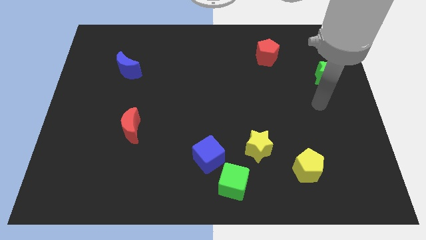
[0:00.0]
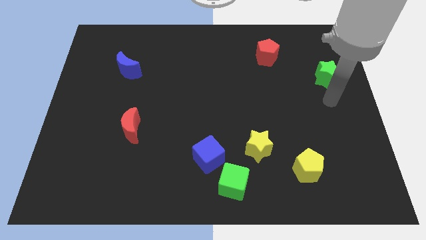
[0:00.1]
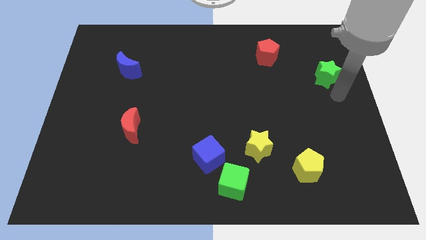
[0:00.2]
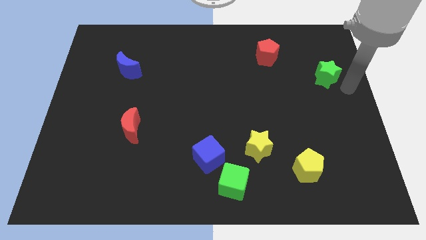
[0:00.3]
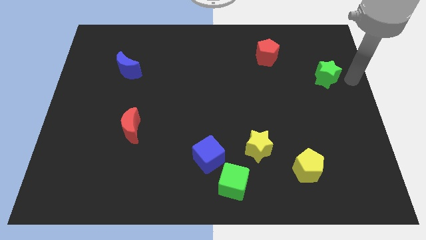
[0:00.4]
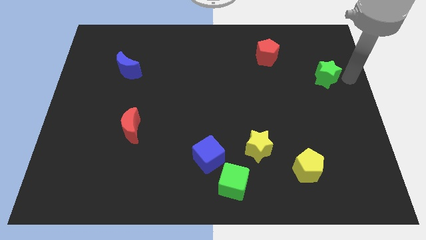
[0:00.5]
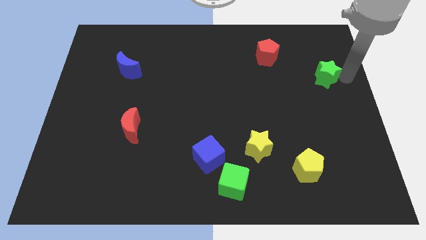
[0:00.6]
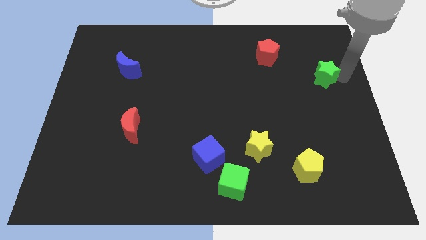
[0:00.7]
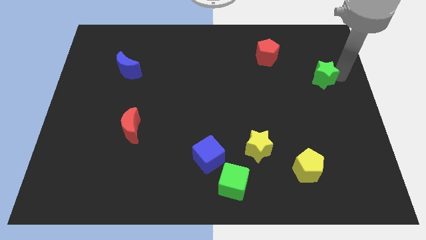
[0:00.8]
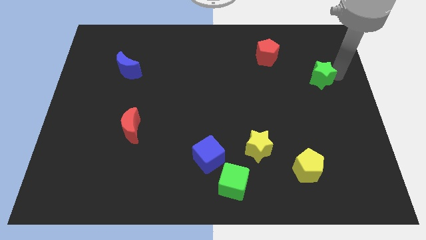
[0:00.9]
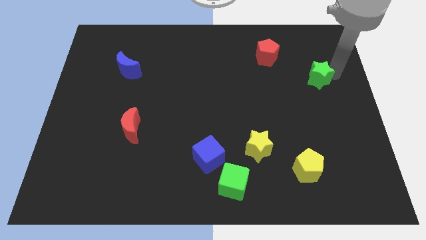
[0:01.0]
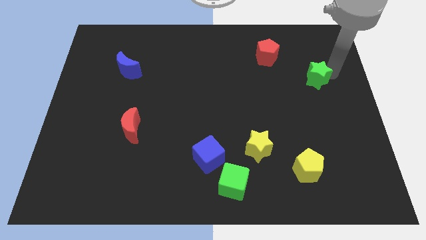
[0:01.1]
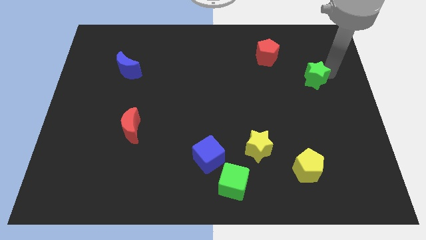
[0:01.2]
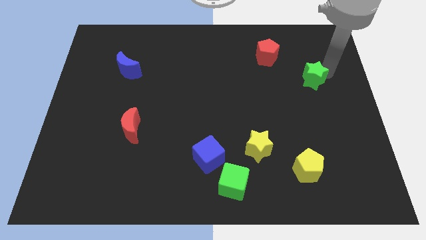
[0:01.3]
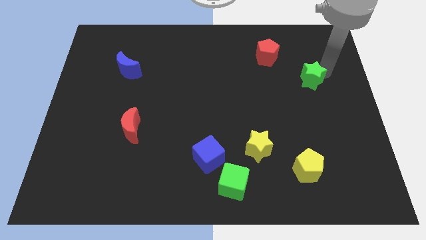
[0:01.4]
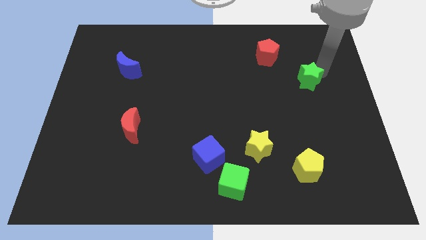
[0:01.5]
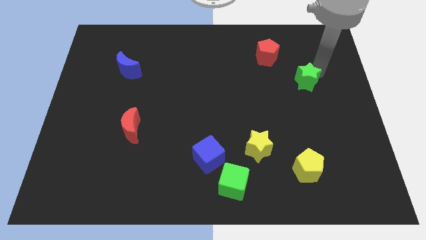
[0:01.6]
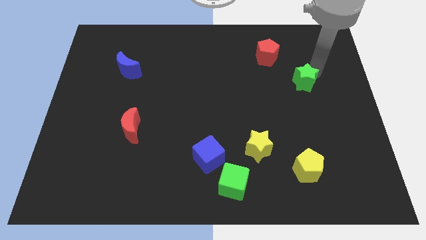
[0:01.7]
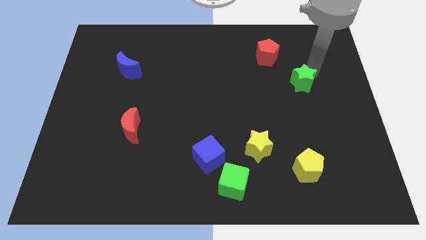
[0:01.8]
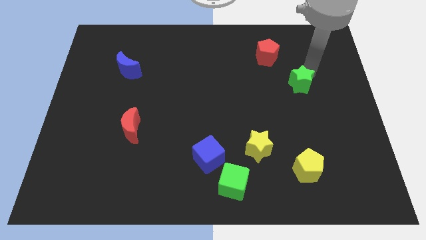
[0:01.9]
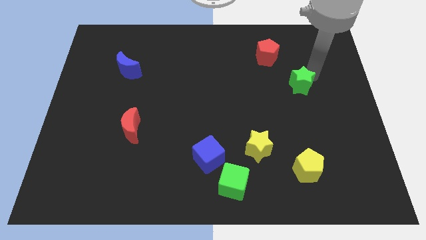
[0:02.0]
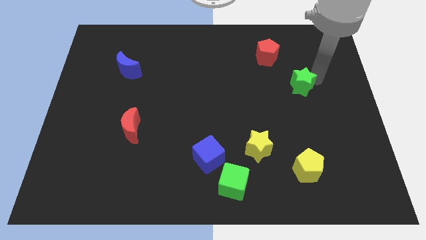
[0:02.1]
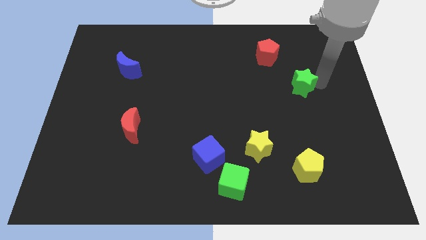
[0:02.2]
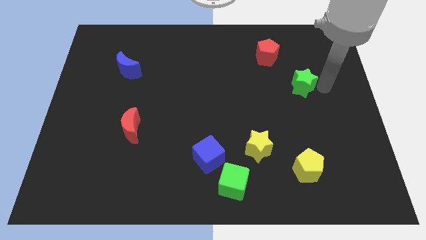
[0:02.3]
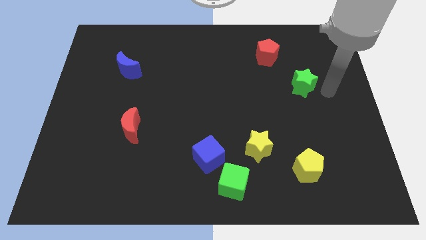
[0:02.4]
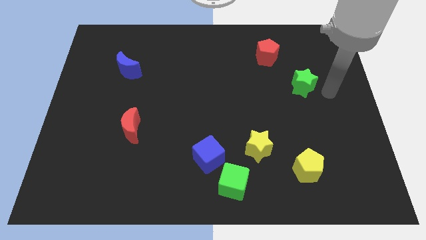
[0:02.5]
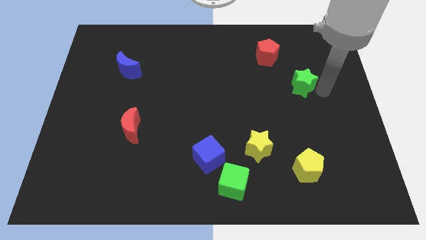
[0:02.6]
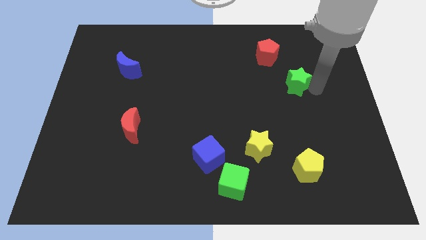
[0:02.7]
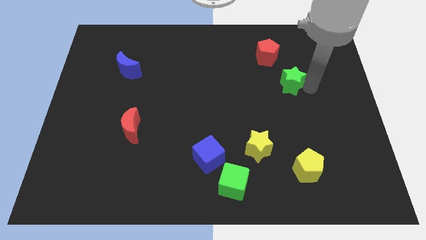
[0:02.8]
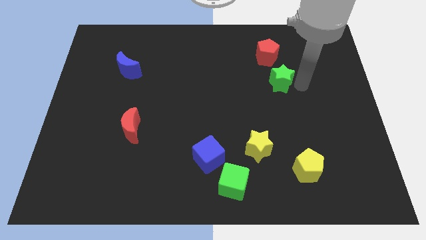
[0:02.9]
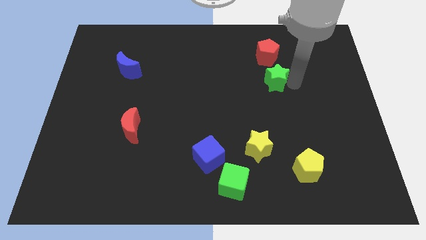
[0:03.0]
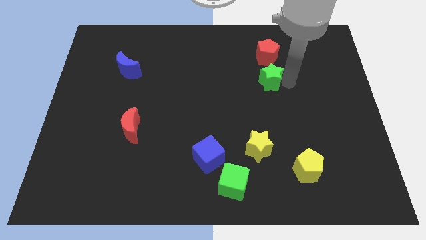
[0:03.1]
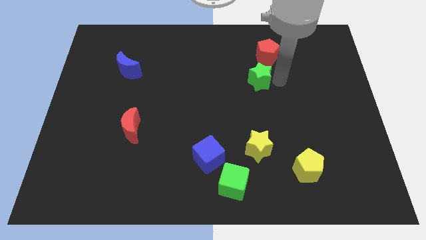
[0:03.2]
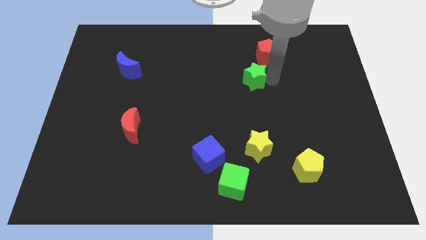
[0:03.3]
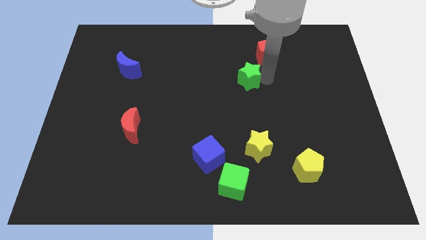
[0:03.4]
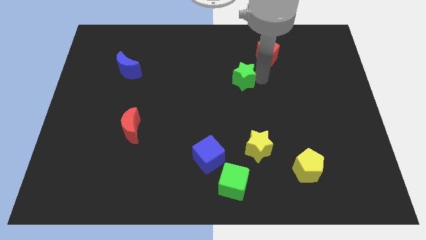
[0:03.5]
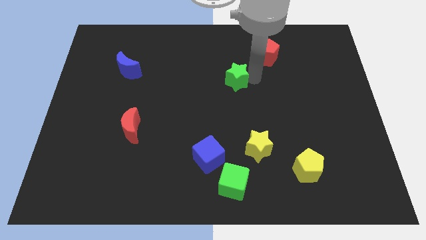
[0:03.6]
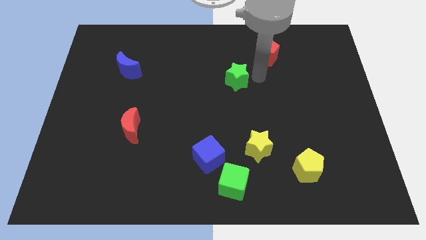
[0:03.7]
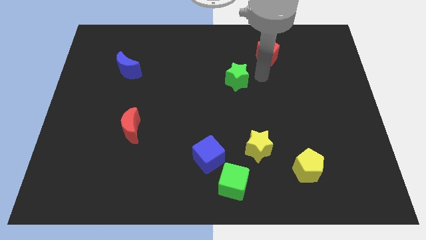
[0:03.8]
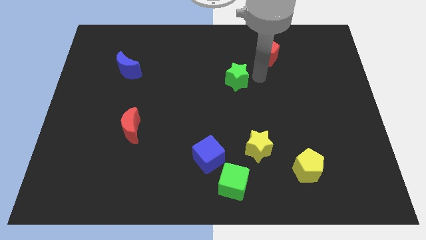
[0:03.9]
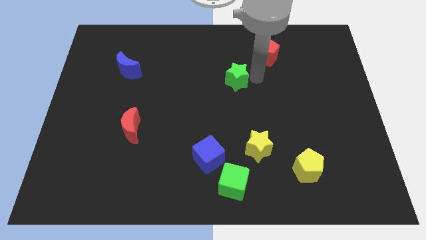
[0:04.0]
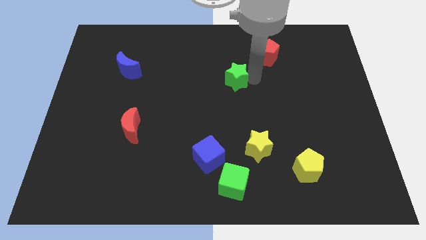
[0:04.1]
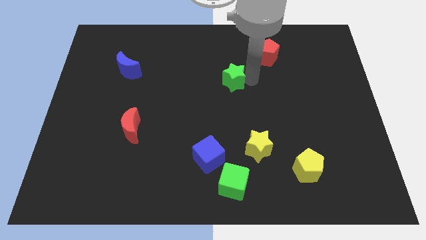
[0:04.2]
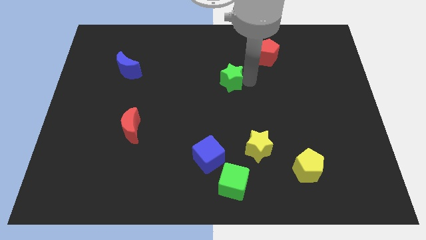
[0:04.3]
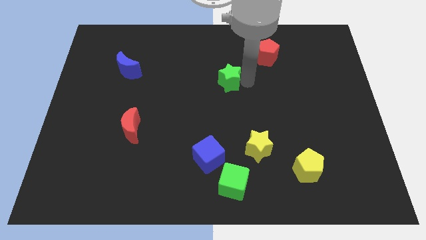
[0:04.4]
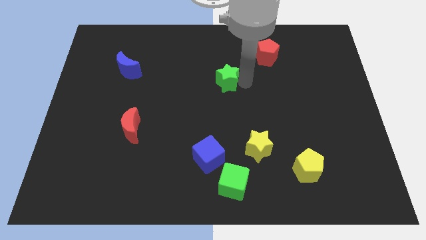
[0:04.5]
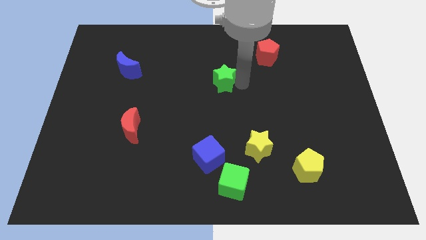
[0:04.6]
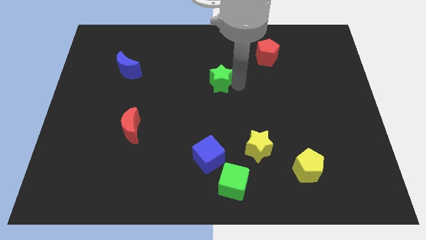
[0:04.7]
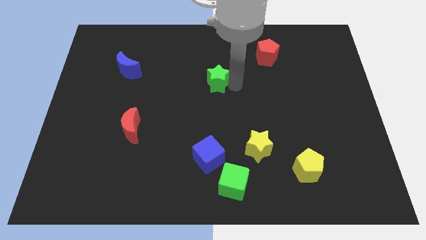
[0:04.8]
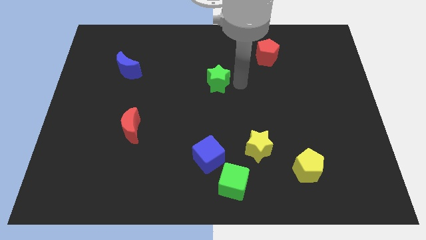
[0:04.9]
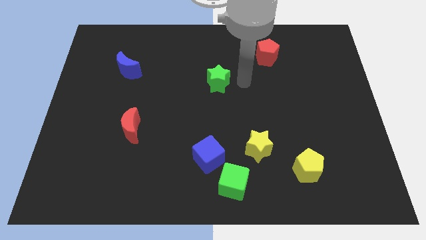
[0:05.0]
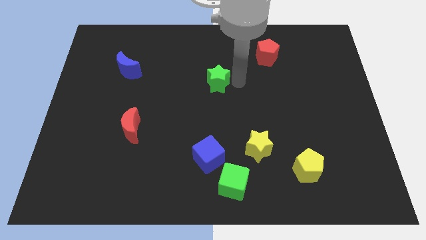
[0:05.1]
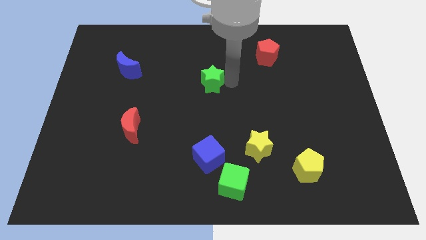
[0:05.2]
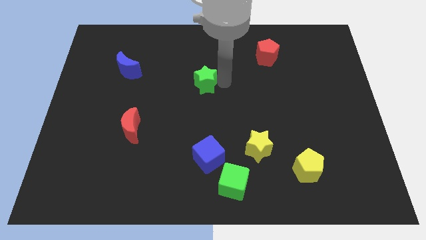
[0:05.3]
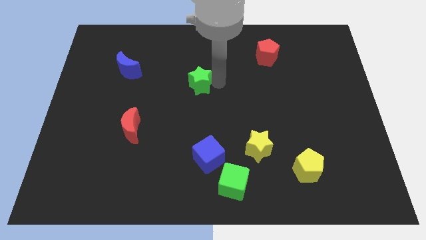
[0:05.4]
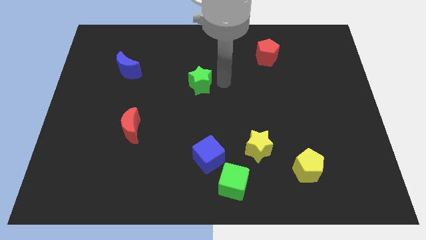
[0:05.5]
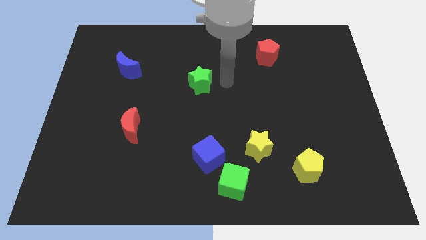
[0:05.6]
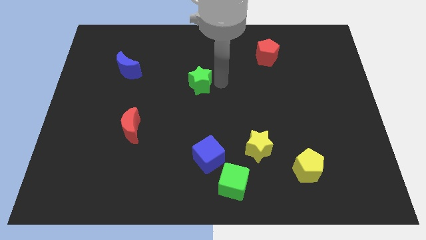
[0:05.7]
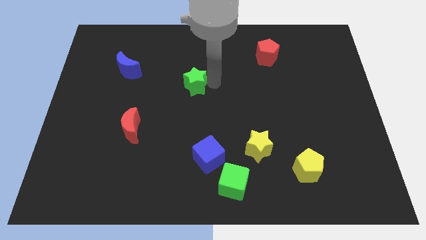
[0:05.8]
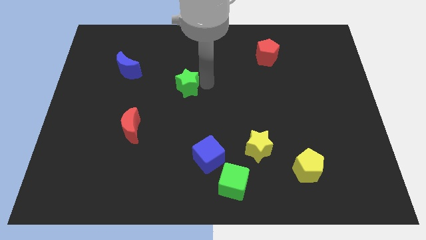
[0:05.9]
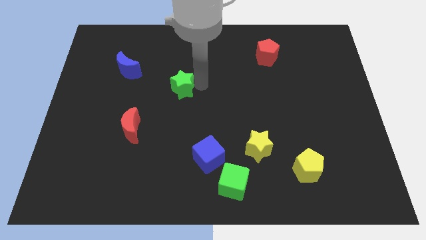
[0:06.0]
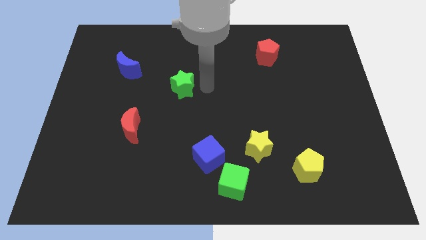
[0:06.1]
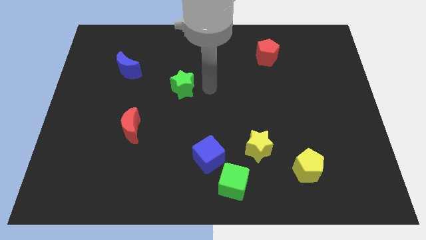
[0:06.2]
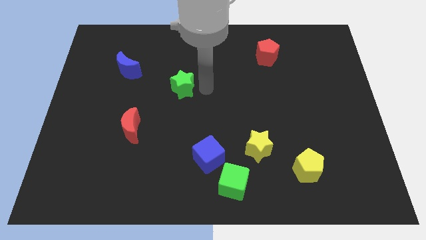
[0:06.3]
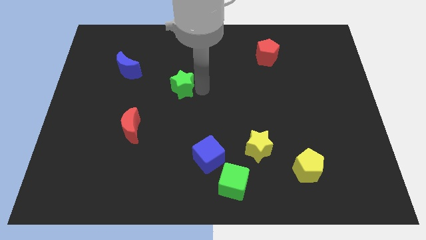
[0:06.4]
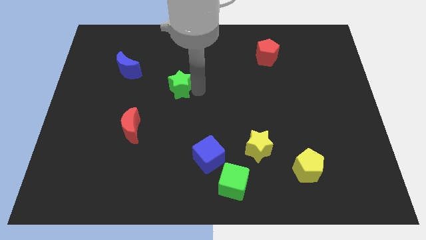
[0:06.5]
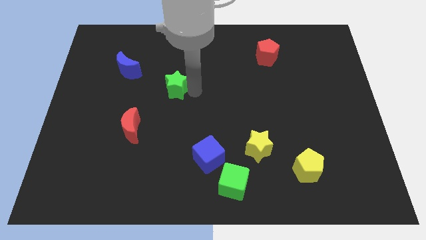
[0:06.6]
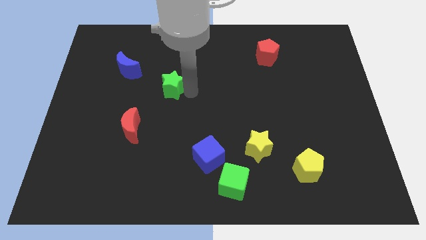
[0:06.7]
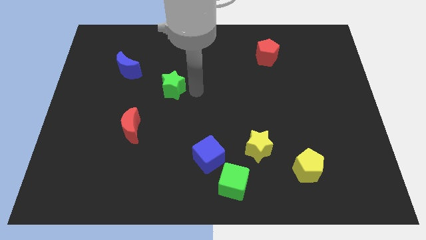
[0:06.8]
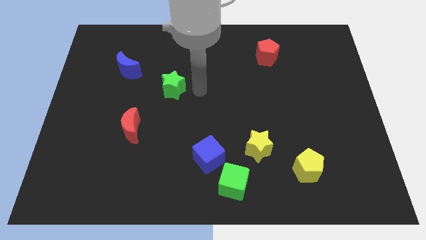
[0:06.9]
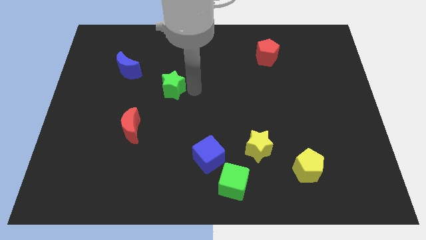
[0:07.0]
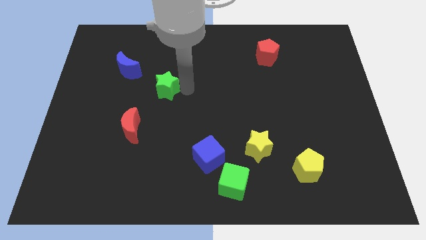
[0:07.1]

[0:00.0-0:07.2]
put the green star to the bottom right side of the blue moon

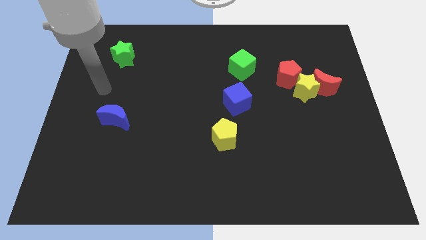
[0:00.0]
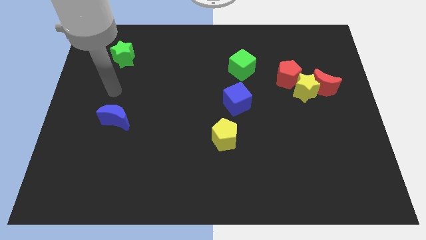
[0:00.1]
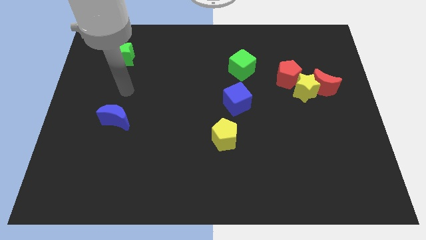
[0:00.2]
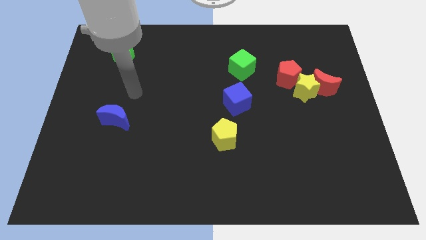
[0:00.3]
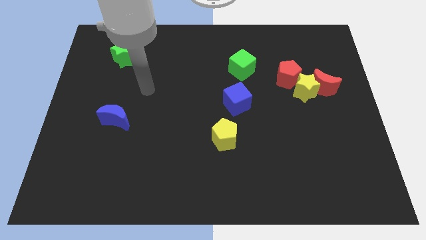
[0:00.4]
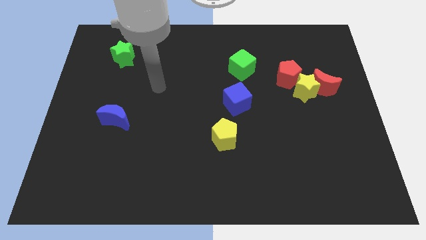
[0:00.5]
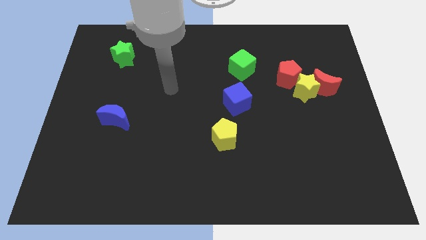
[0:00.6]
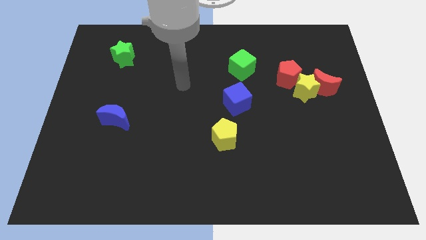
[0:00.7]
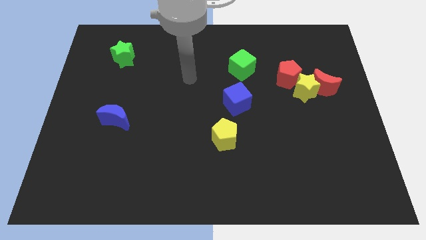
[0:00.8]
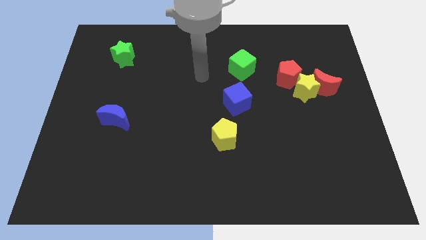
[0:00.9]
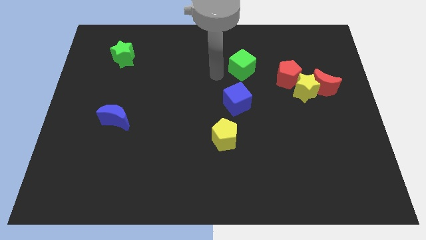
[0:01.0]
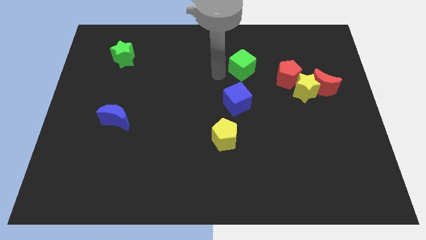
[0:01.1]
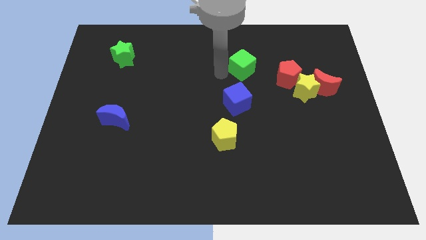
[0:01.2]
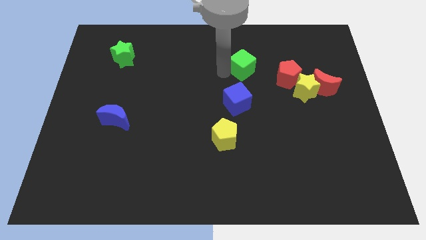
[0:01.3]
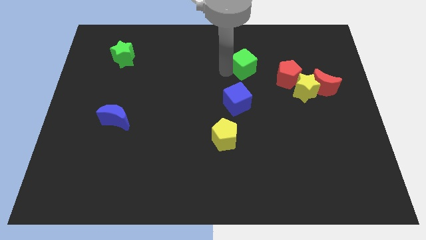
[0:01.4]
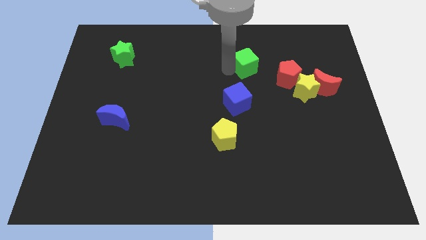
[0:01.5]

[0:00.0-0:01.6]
slide the green cube diagonally up and to the left of the red pentagon
